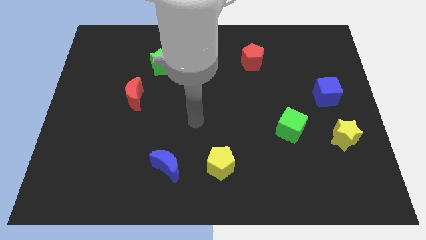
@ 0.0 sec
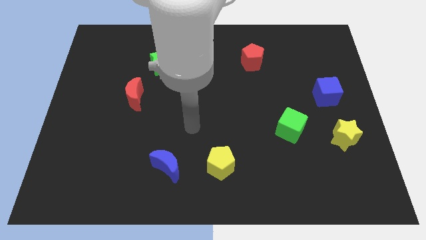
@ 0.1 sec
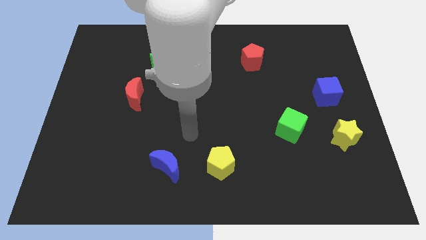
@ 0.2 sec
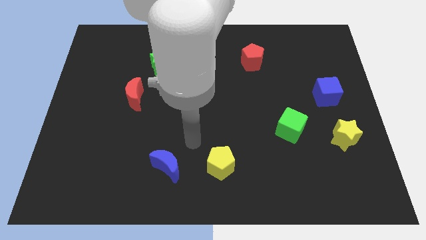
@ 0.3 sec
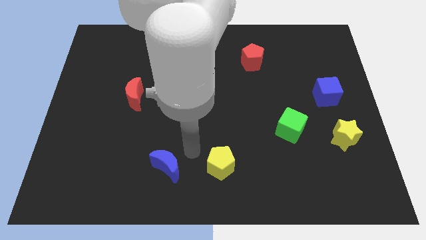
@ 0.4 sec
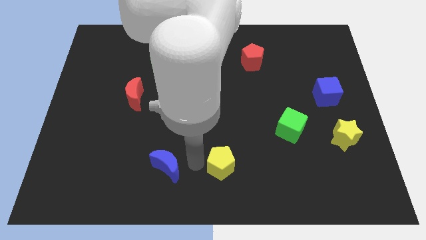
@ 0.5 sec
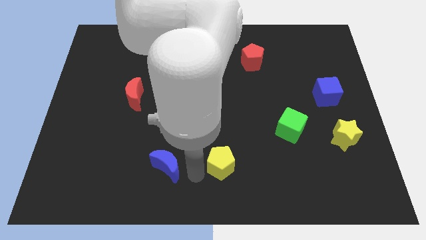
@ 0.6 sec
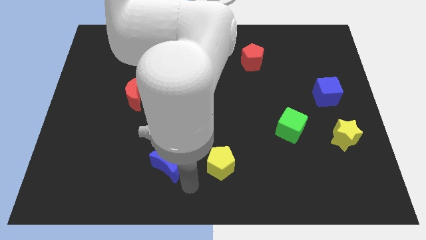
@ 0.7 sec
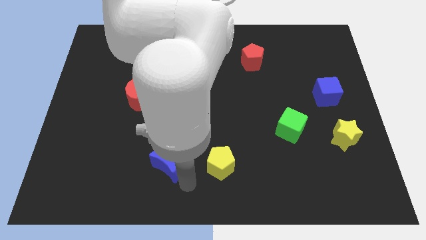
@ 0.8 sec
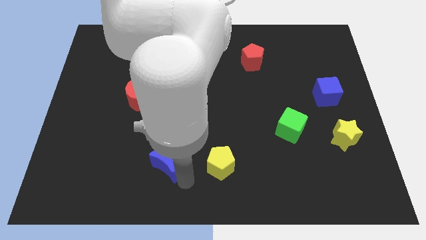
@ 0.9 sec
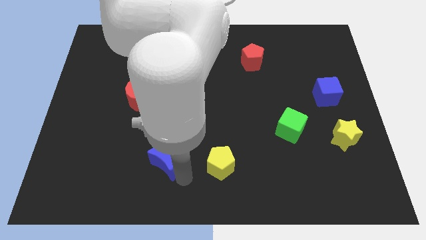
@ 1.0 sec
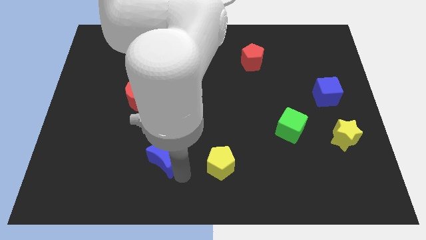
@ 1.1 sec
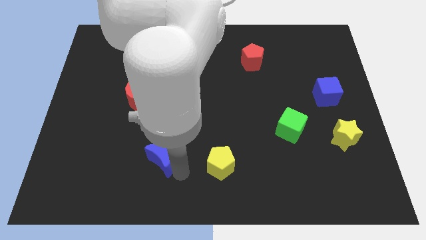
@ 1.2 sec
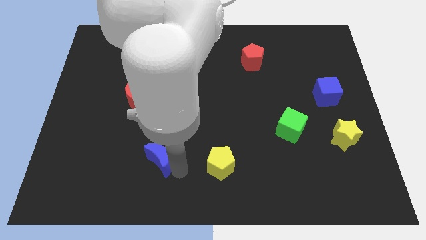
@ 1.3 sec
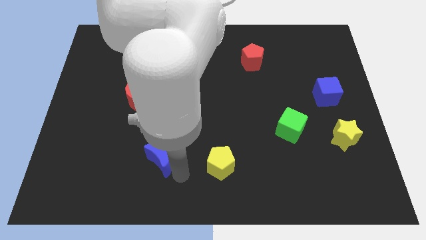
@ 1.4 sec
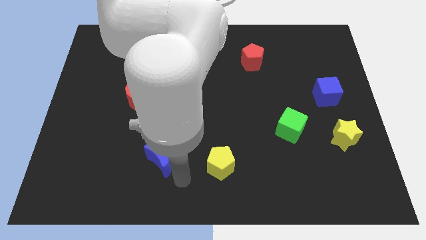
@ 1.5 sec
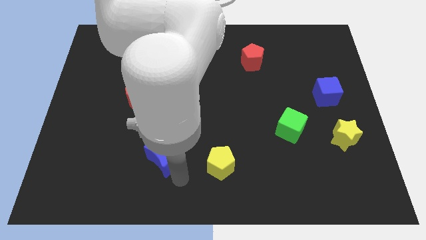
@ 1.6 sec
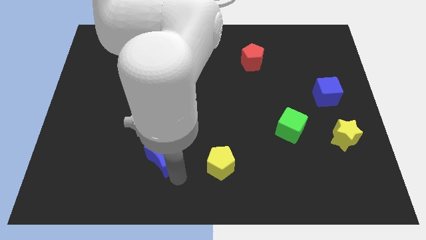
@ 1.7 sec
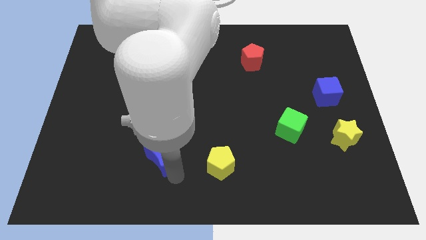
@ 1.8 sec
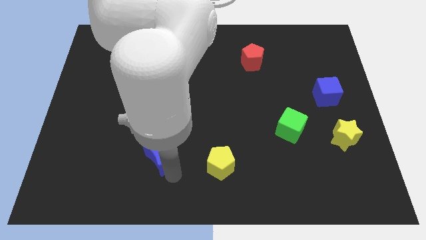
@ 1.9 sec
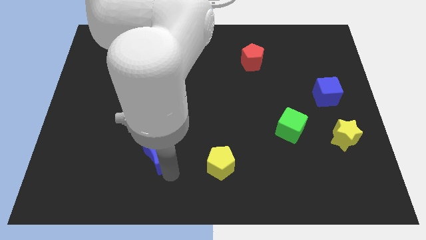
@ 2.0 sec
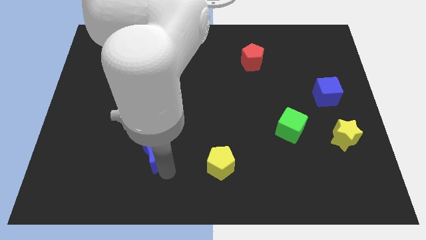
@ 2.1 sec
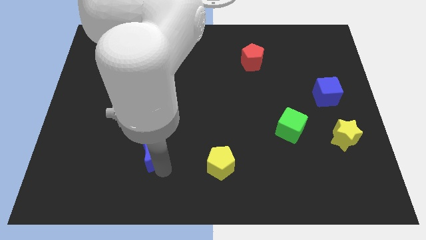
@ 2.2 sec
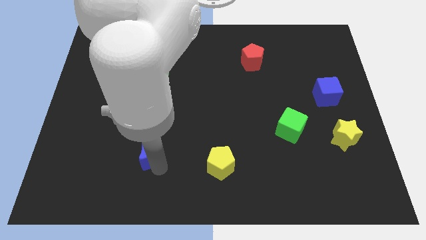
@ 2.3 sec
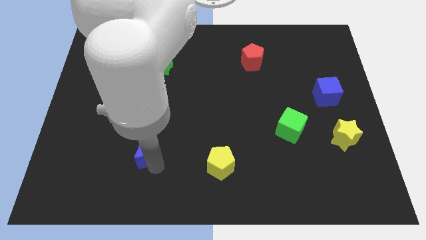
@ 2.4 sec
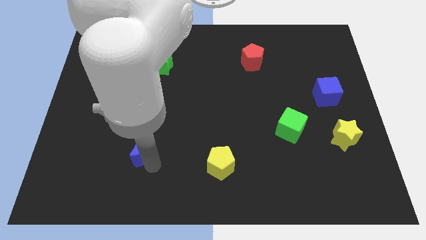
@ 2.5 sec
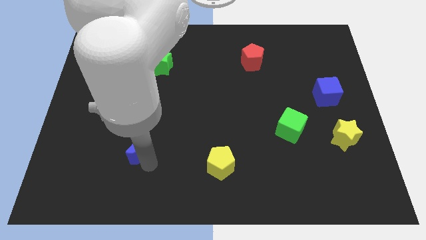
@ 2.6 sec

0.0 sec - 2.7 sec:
slightly slide the blue moon upwards and then left

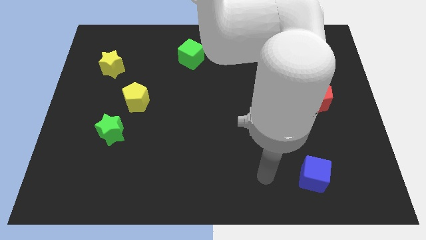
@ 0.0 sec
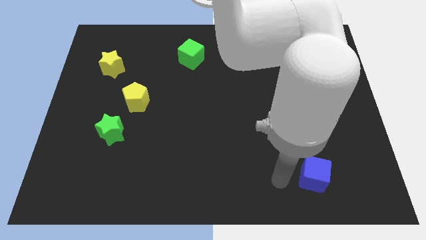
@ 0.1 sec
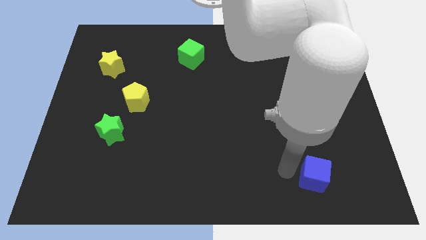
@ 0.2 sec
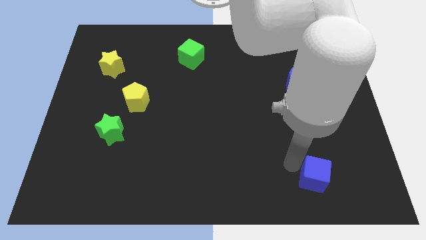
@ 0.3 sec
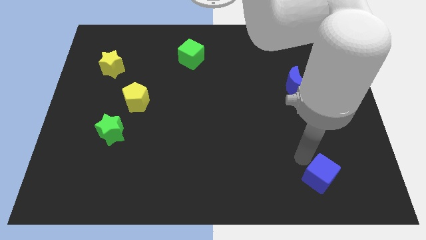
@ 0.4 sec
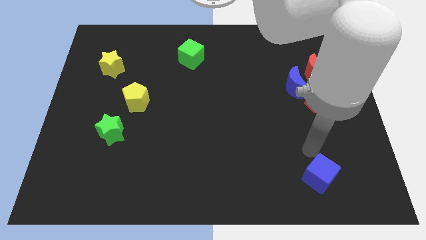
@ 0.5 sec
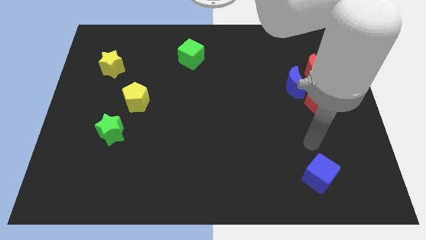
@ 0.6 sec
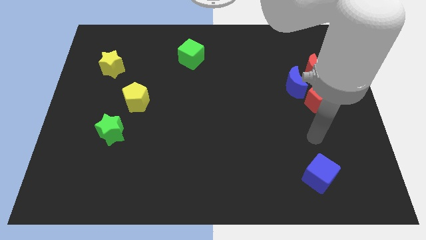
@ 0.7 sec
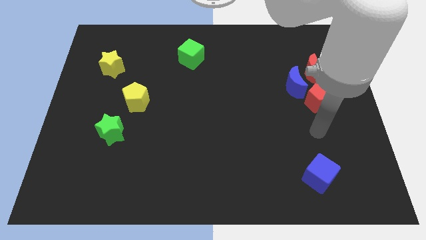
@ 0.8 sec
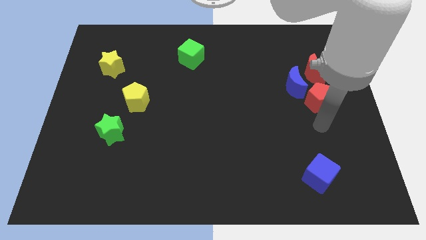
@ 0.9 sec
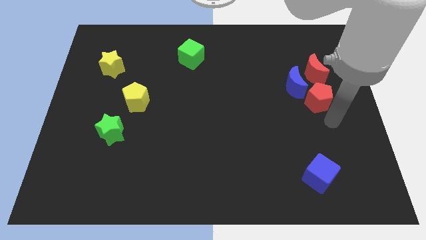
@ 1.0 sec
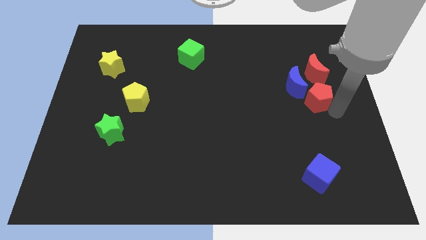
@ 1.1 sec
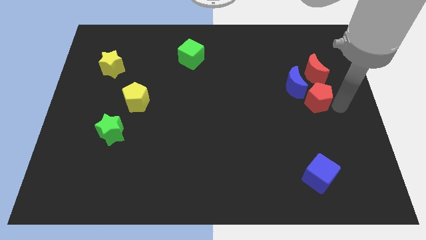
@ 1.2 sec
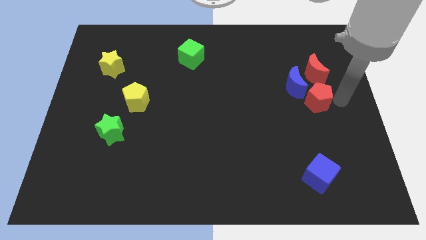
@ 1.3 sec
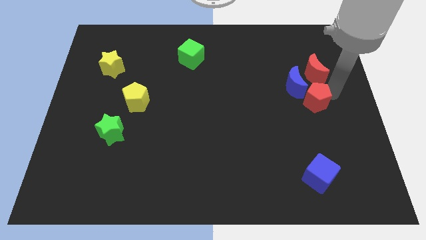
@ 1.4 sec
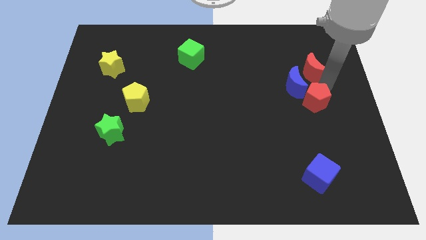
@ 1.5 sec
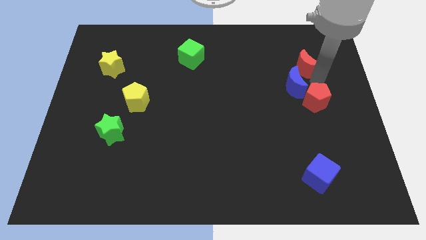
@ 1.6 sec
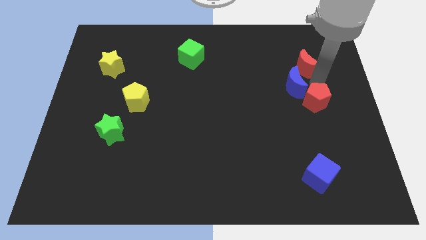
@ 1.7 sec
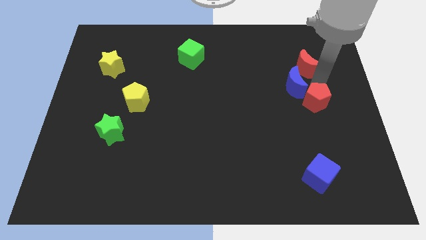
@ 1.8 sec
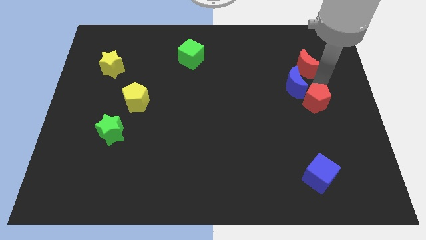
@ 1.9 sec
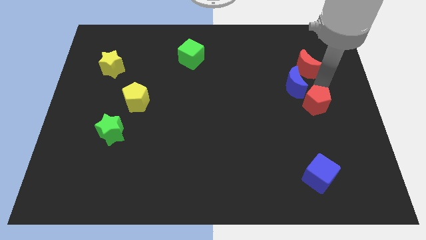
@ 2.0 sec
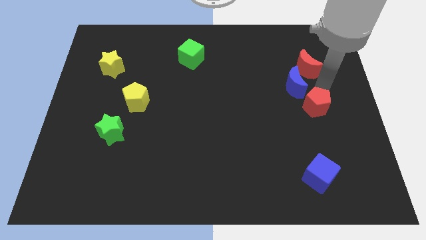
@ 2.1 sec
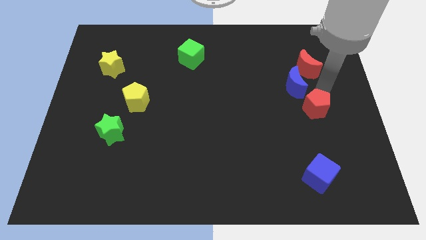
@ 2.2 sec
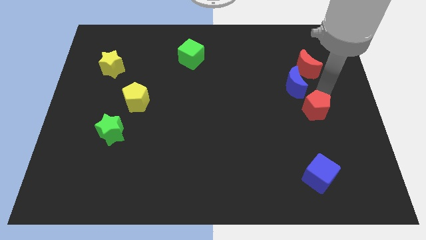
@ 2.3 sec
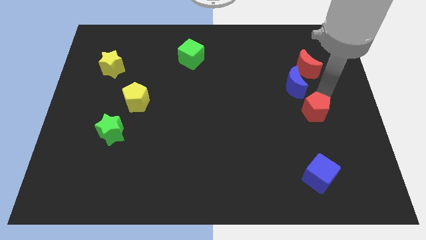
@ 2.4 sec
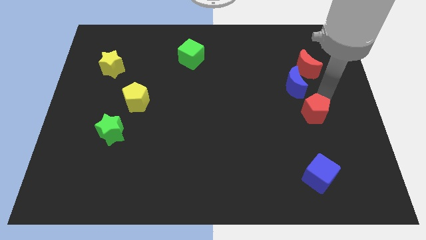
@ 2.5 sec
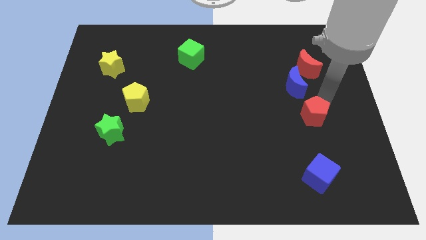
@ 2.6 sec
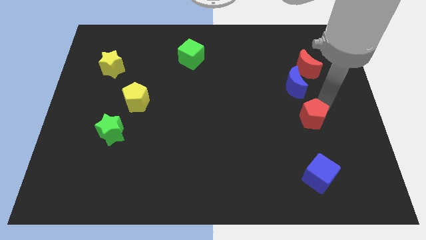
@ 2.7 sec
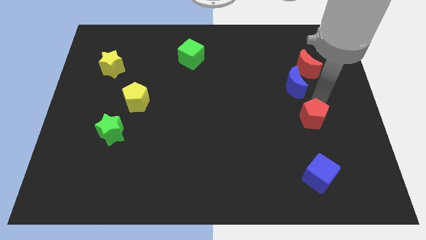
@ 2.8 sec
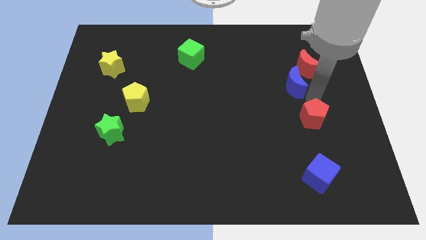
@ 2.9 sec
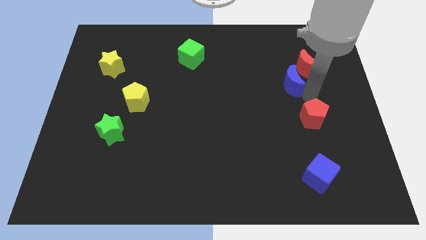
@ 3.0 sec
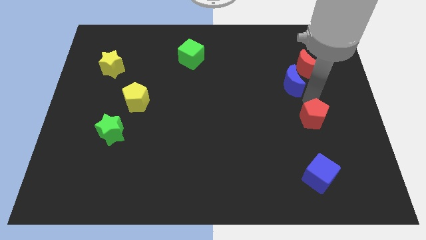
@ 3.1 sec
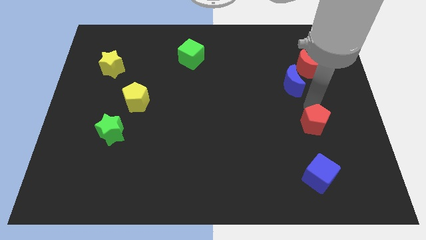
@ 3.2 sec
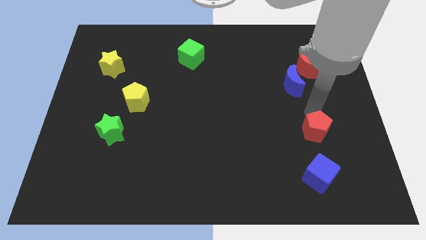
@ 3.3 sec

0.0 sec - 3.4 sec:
push the red pentagon a little bit downwards

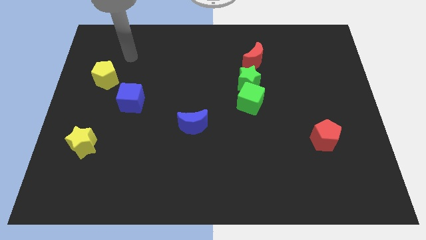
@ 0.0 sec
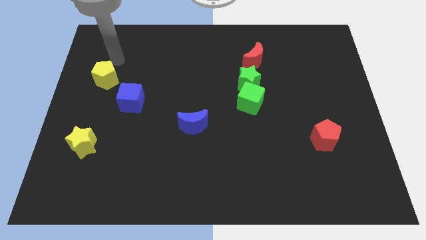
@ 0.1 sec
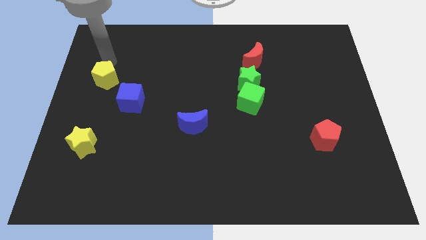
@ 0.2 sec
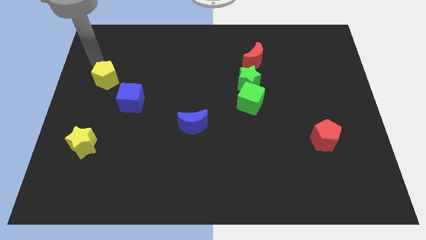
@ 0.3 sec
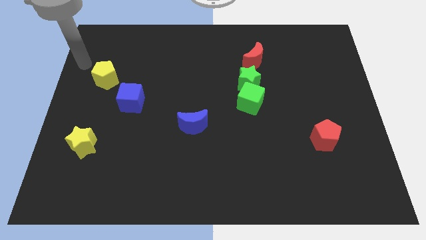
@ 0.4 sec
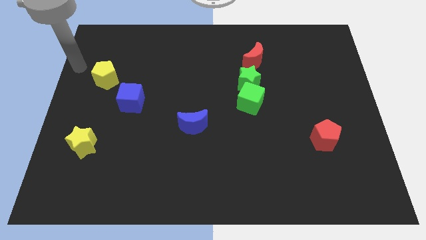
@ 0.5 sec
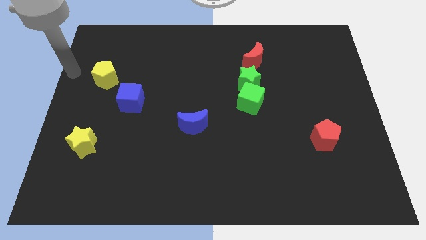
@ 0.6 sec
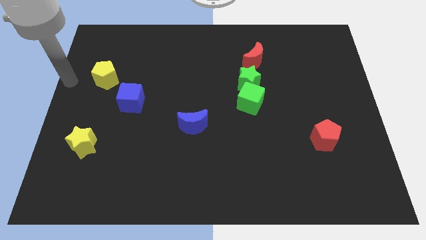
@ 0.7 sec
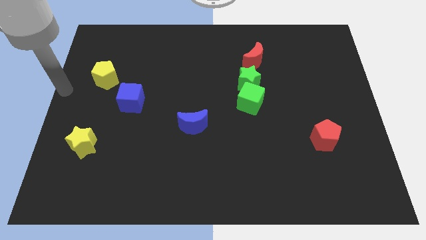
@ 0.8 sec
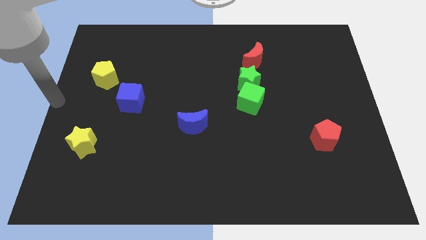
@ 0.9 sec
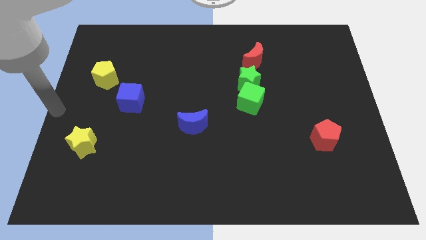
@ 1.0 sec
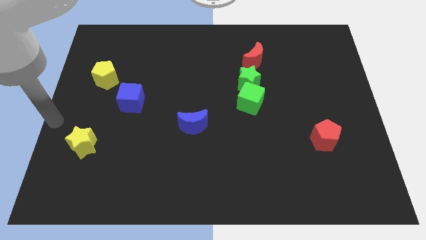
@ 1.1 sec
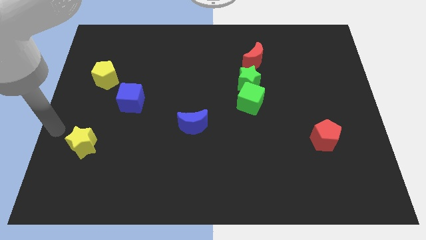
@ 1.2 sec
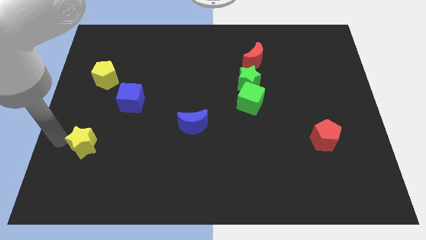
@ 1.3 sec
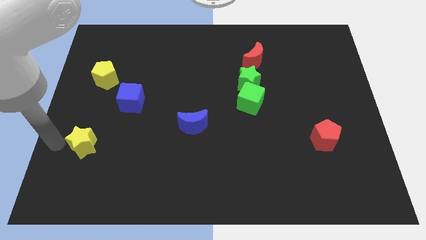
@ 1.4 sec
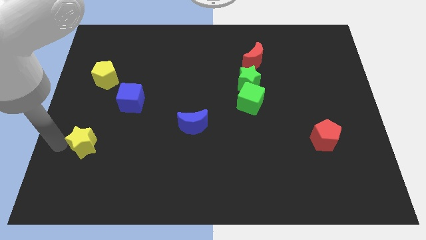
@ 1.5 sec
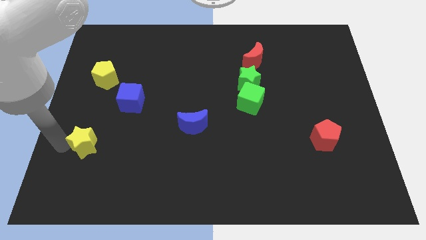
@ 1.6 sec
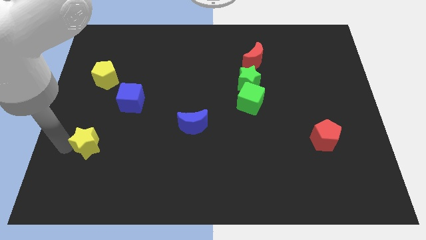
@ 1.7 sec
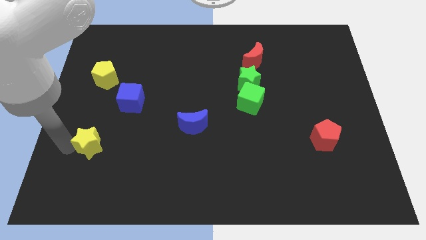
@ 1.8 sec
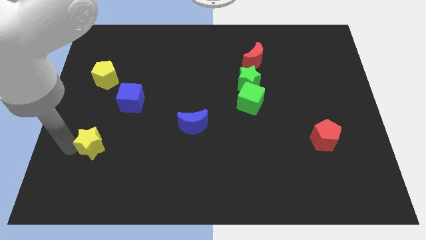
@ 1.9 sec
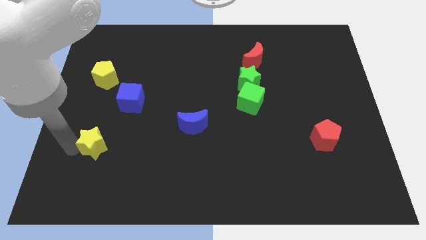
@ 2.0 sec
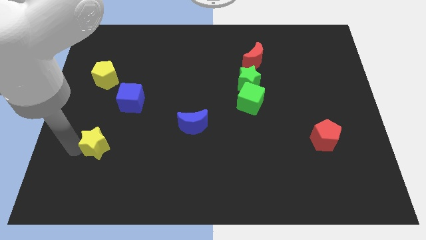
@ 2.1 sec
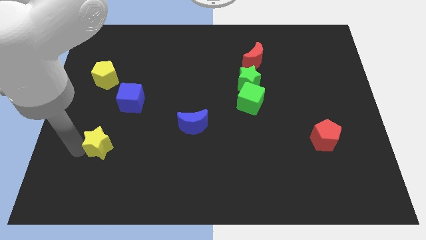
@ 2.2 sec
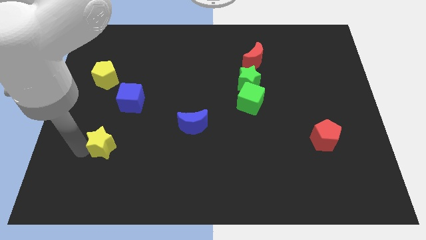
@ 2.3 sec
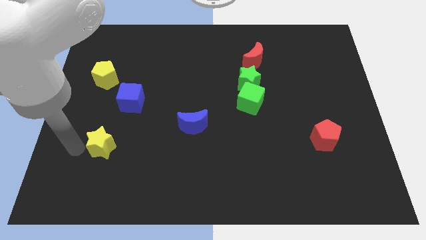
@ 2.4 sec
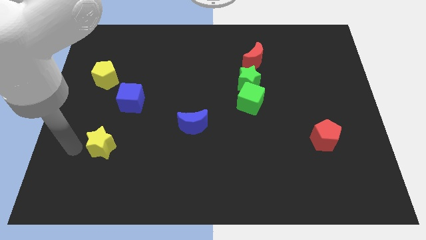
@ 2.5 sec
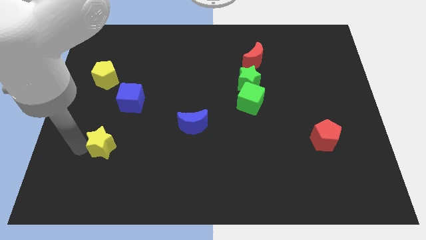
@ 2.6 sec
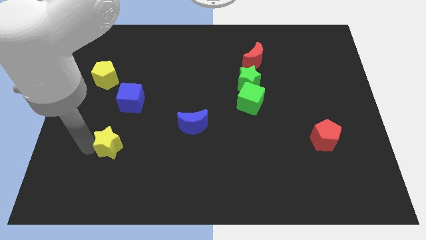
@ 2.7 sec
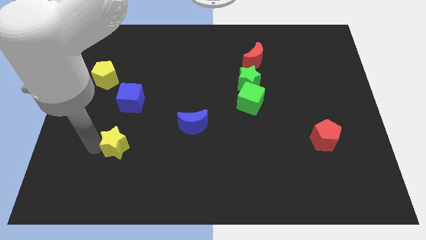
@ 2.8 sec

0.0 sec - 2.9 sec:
slightly push the yellow star right
